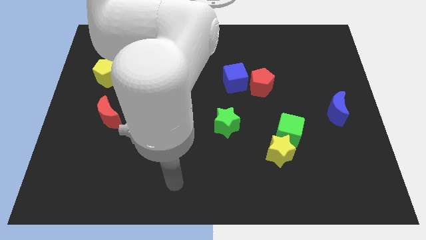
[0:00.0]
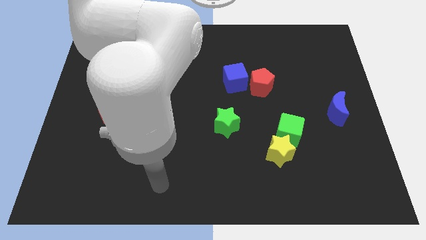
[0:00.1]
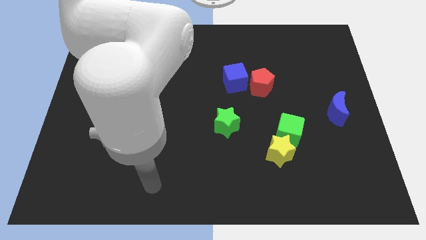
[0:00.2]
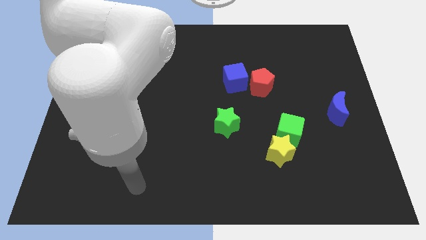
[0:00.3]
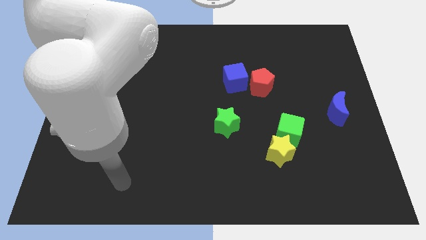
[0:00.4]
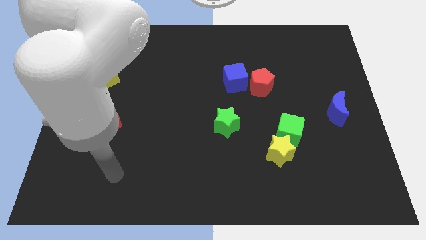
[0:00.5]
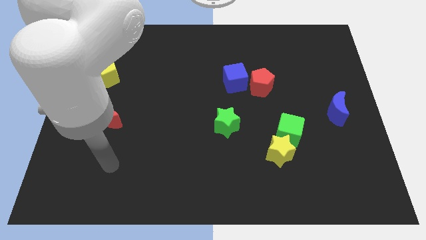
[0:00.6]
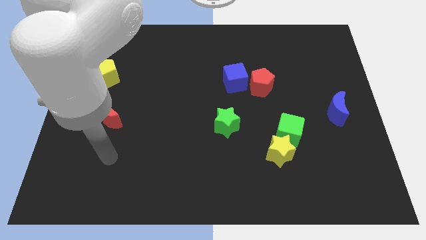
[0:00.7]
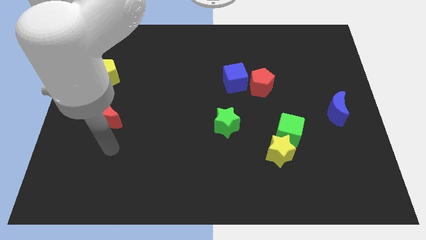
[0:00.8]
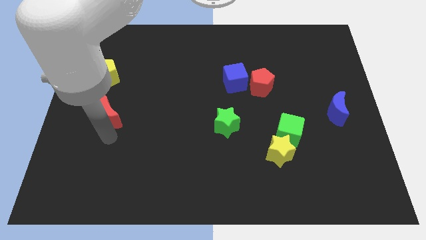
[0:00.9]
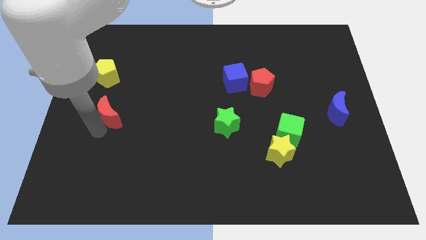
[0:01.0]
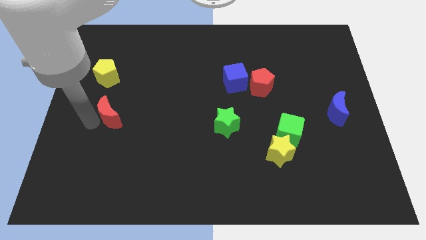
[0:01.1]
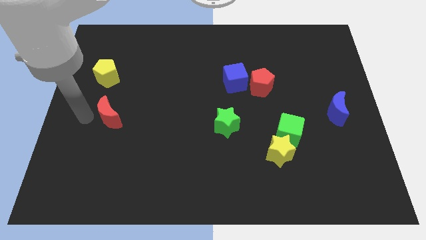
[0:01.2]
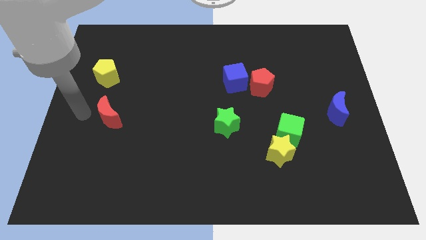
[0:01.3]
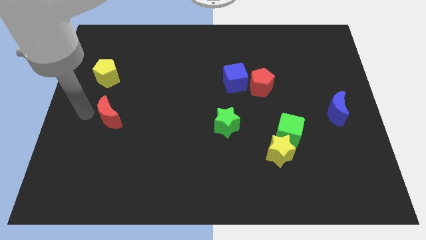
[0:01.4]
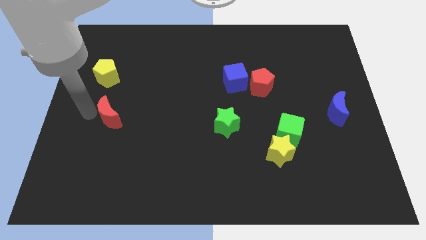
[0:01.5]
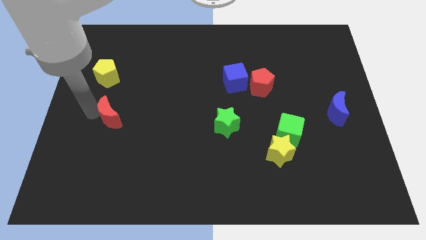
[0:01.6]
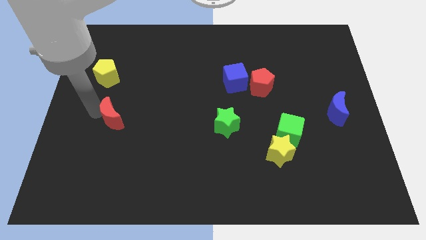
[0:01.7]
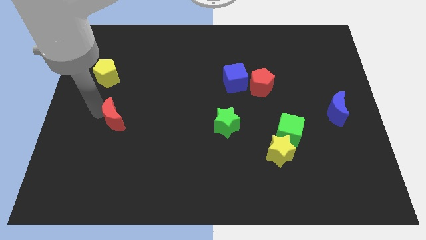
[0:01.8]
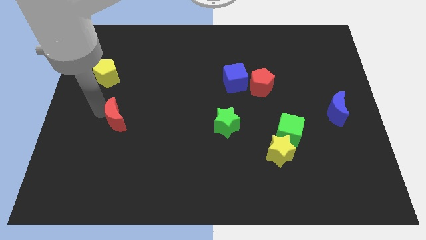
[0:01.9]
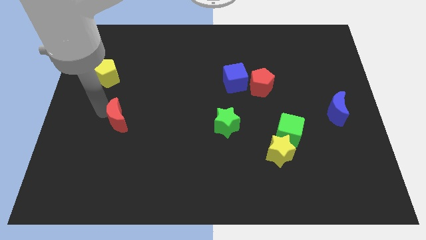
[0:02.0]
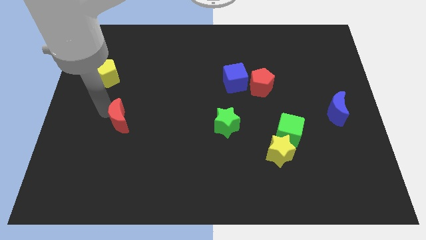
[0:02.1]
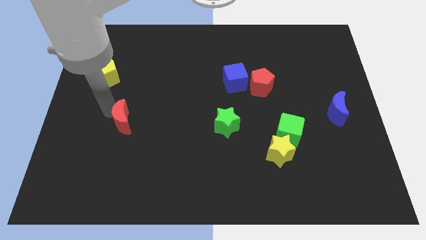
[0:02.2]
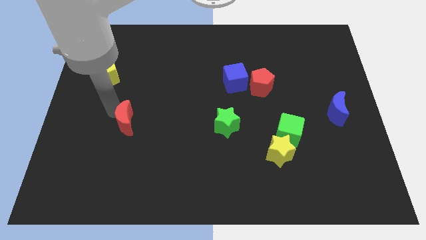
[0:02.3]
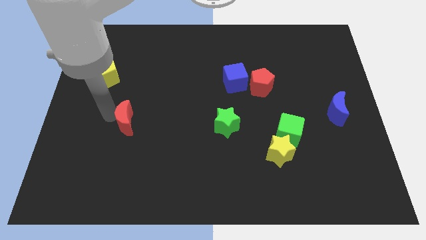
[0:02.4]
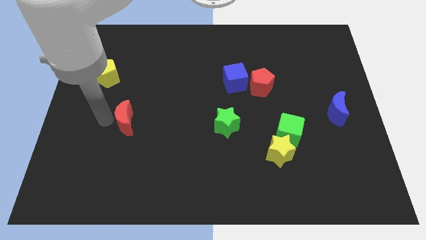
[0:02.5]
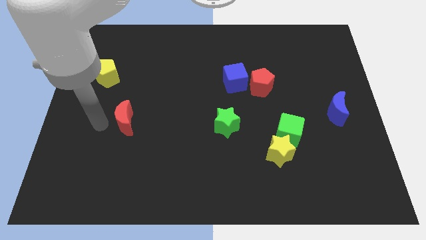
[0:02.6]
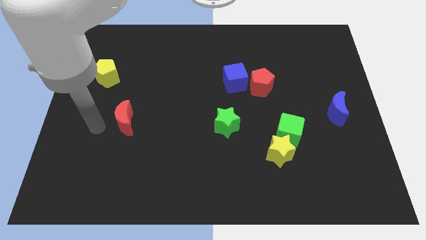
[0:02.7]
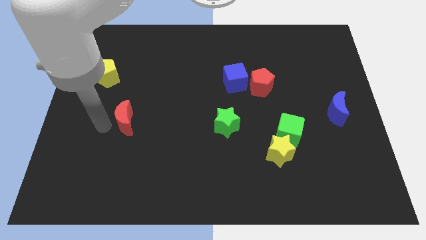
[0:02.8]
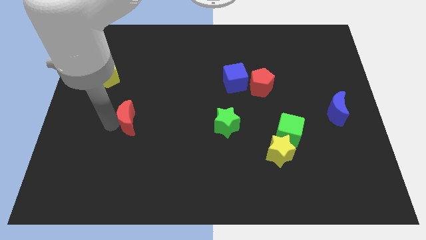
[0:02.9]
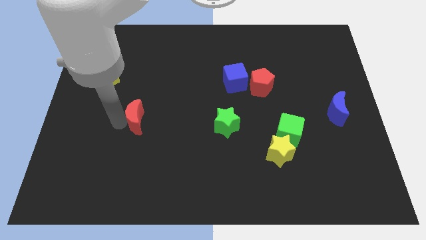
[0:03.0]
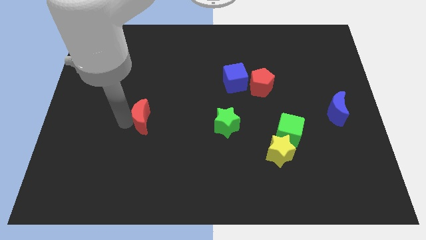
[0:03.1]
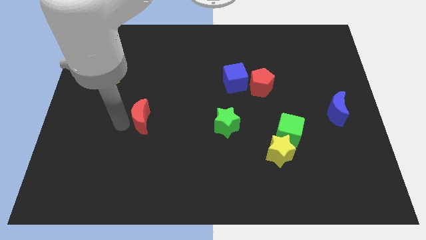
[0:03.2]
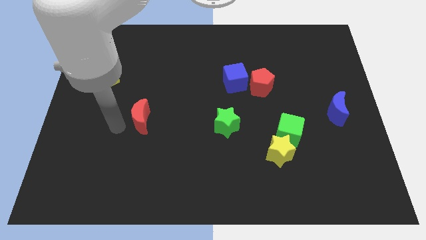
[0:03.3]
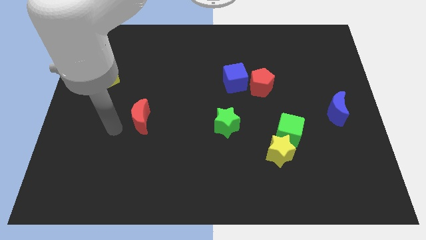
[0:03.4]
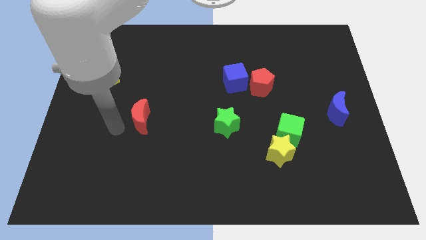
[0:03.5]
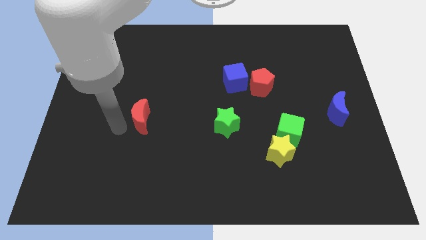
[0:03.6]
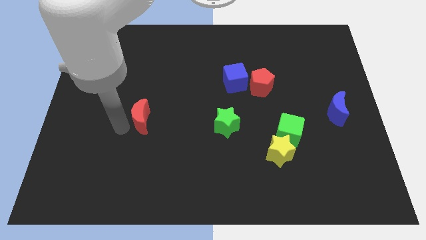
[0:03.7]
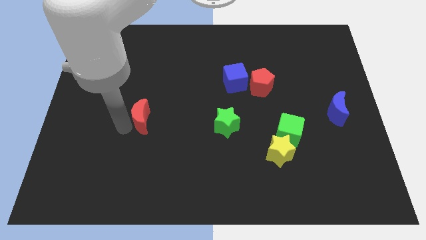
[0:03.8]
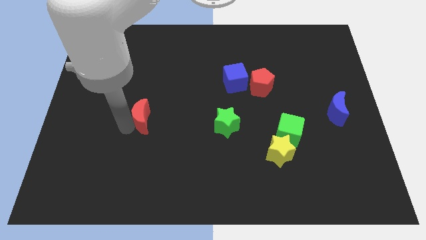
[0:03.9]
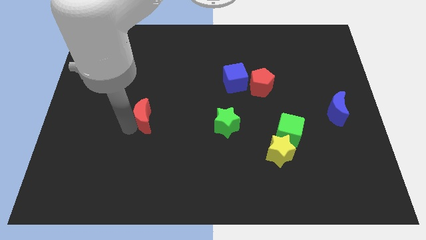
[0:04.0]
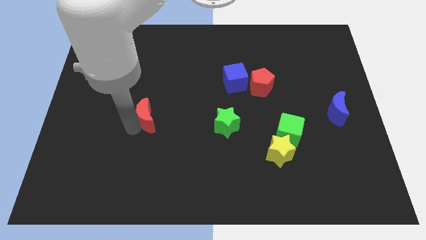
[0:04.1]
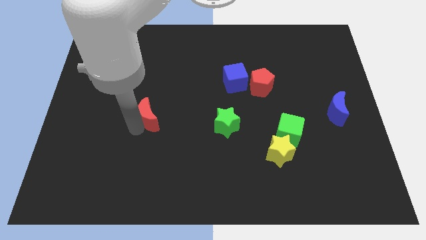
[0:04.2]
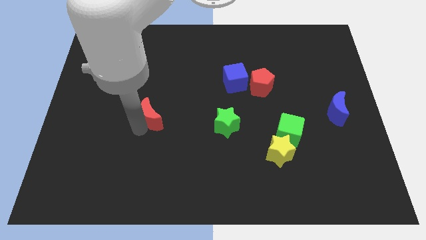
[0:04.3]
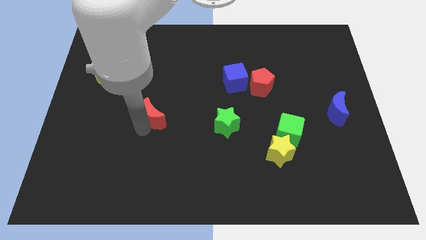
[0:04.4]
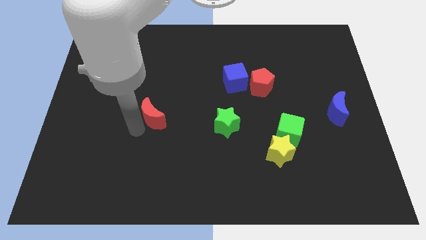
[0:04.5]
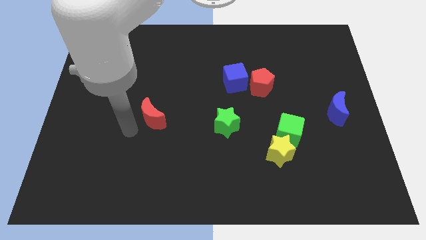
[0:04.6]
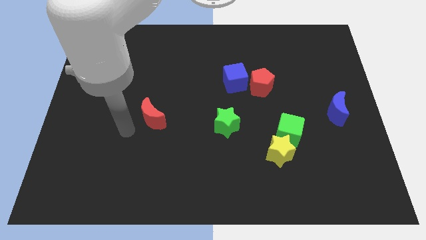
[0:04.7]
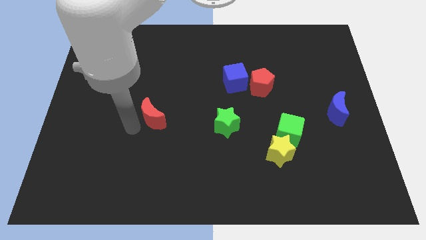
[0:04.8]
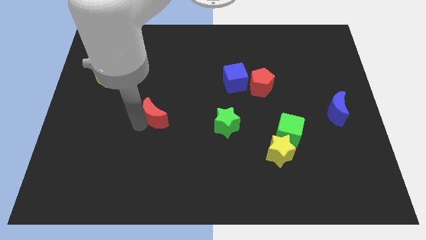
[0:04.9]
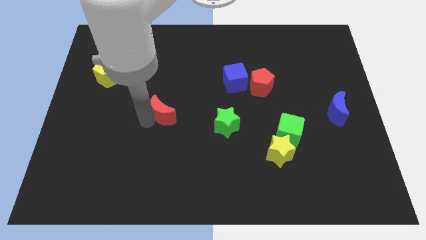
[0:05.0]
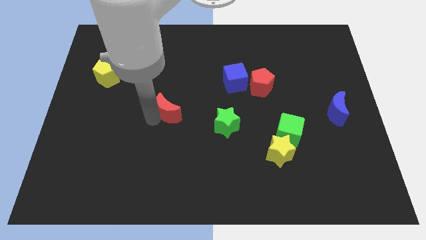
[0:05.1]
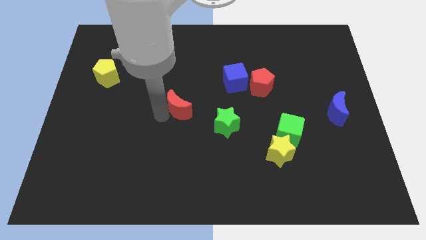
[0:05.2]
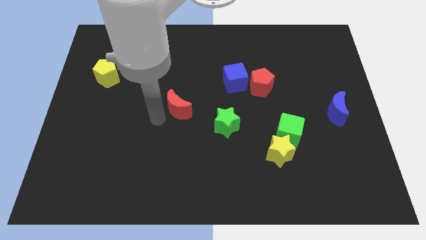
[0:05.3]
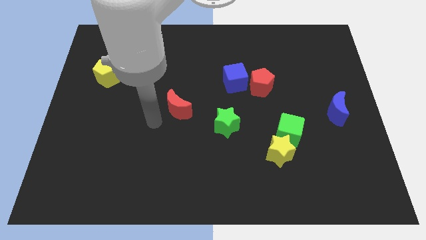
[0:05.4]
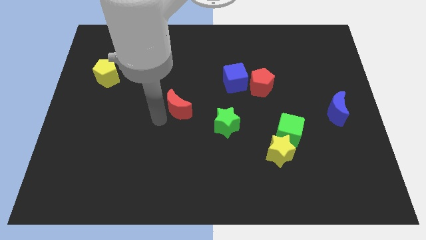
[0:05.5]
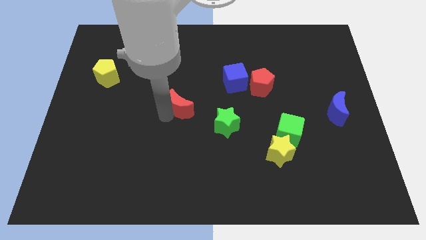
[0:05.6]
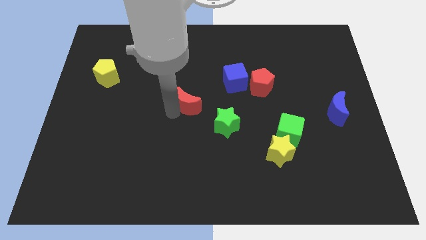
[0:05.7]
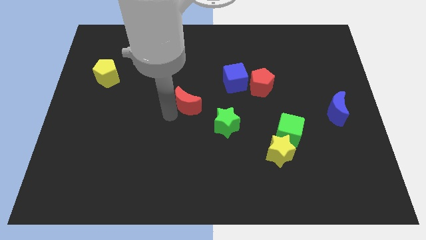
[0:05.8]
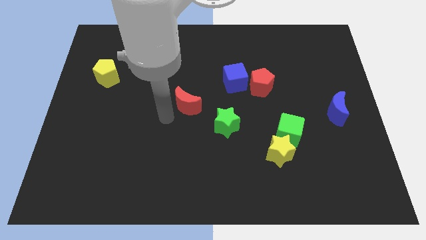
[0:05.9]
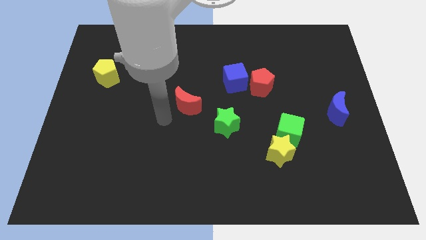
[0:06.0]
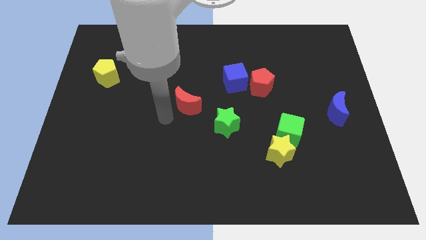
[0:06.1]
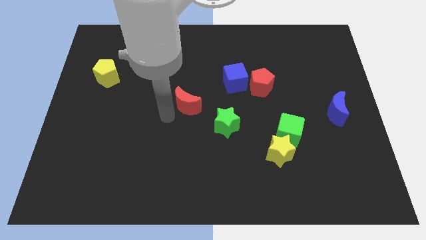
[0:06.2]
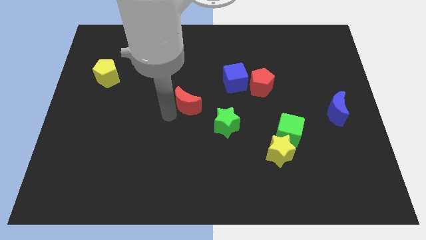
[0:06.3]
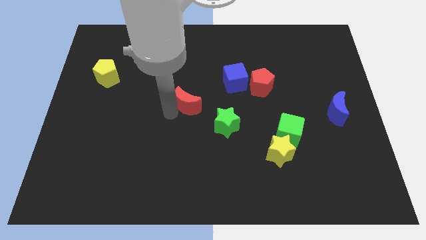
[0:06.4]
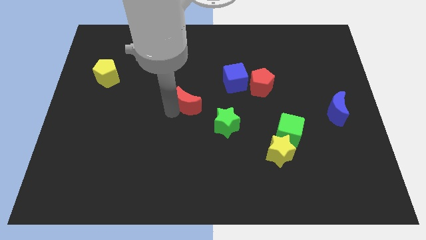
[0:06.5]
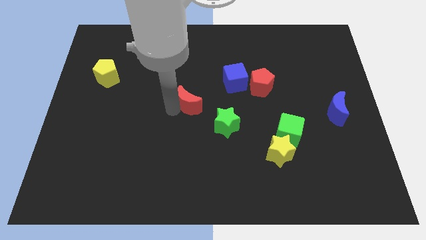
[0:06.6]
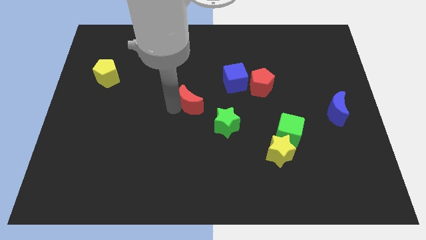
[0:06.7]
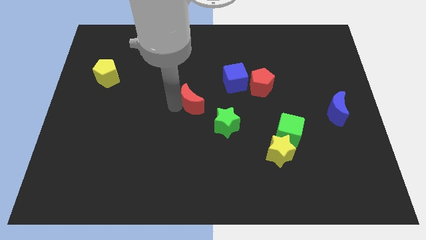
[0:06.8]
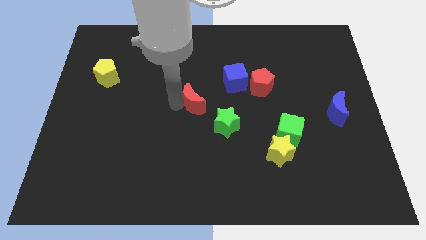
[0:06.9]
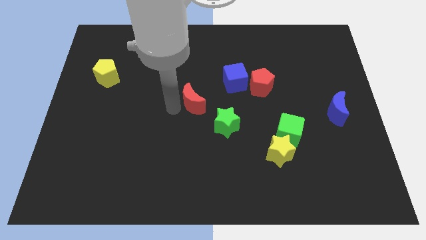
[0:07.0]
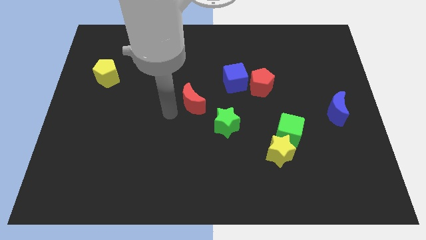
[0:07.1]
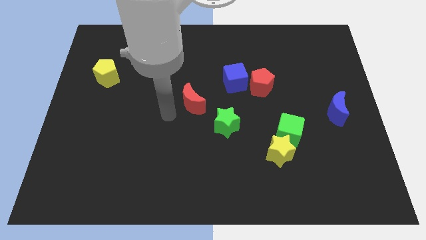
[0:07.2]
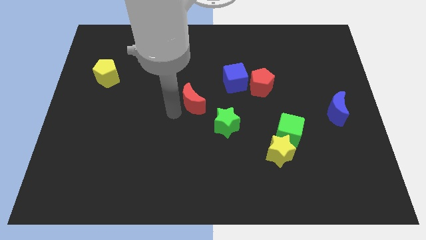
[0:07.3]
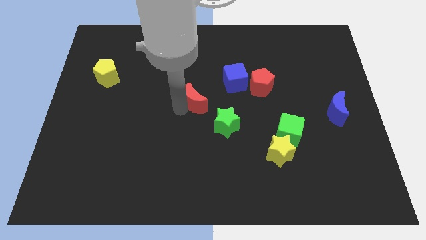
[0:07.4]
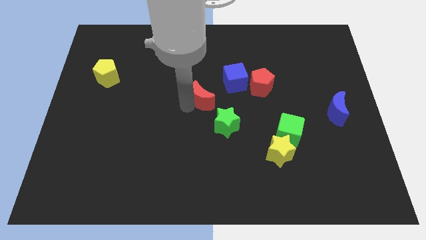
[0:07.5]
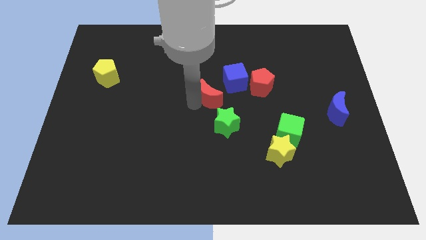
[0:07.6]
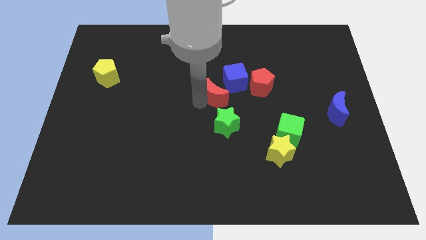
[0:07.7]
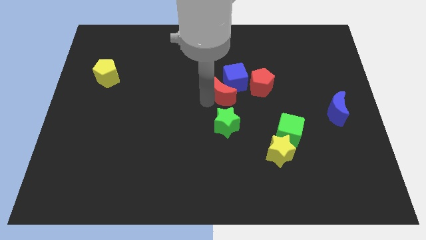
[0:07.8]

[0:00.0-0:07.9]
slide the red moon next to the blue cube
